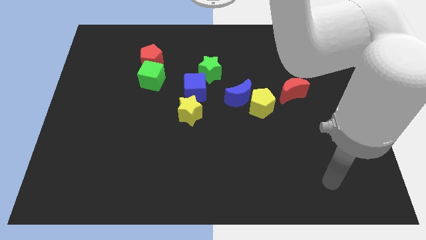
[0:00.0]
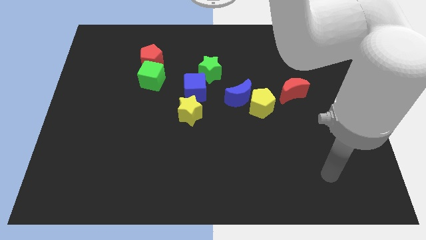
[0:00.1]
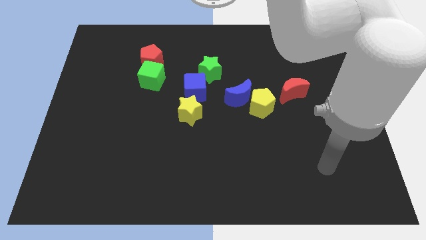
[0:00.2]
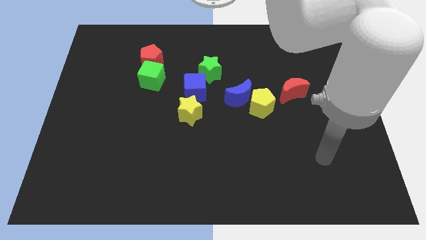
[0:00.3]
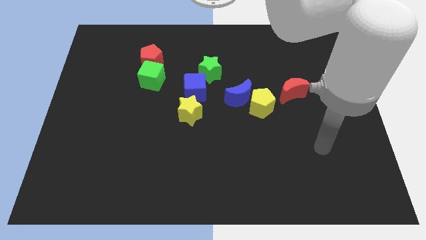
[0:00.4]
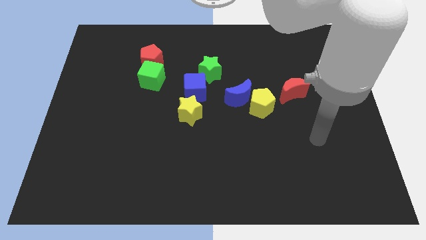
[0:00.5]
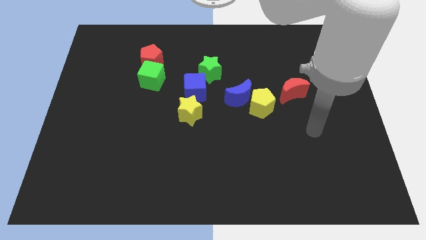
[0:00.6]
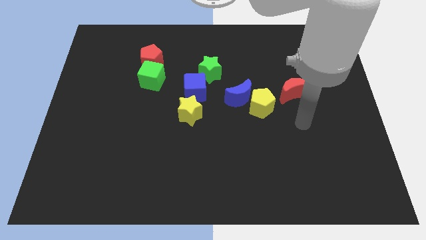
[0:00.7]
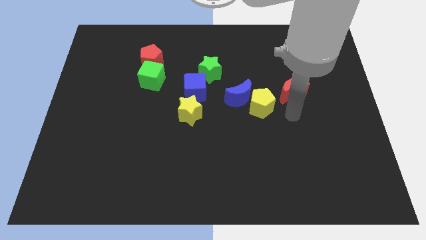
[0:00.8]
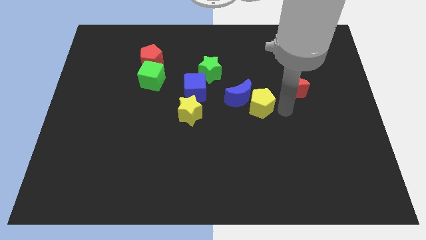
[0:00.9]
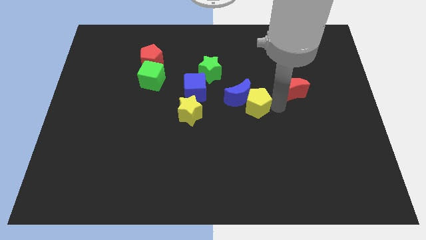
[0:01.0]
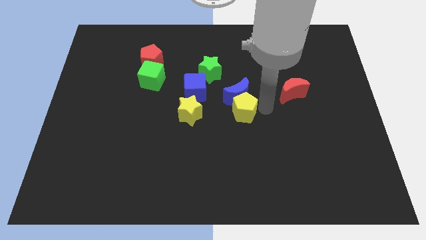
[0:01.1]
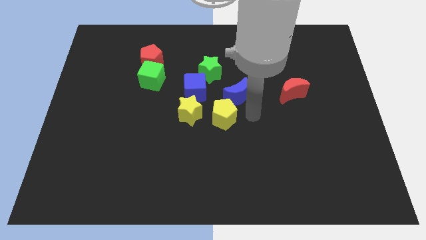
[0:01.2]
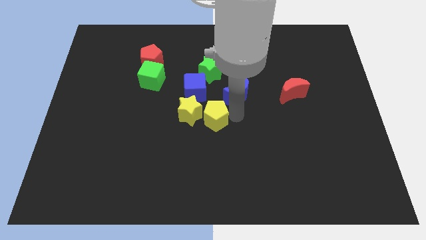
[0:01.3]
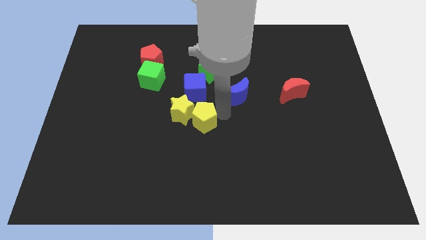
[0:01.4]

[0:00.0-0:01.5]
separate the blue moon from the yellow pentagon

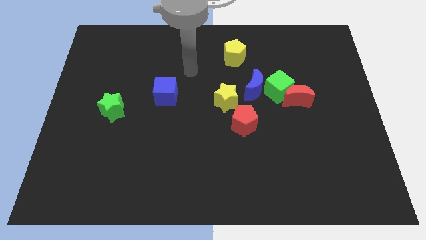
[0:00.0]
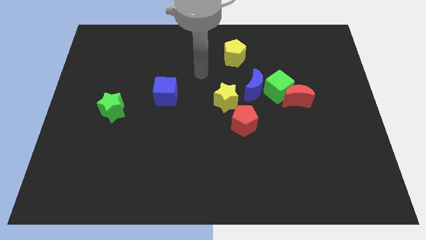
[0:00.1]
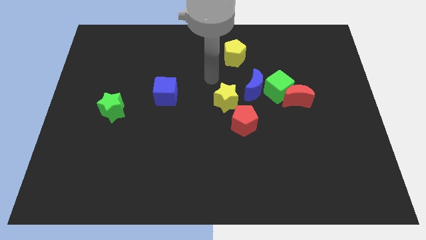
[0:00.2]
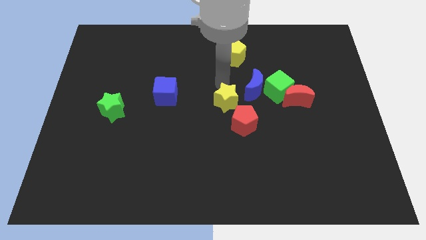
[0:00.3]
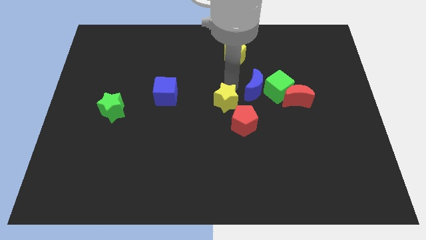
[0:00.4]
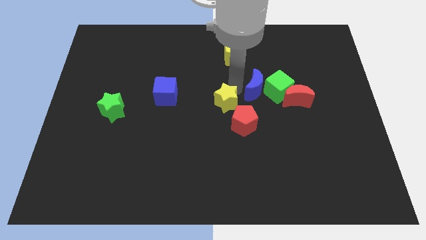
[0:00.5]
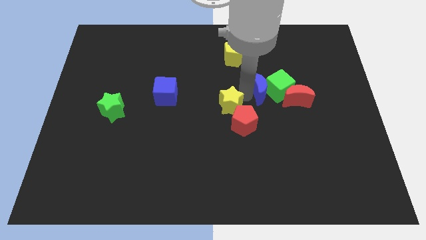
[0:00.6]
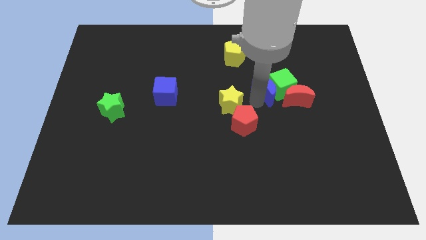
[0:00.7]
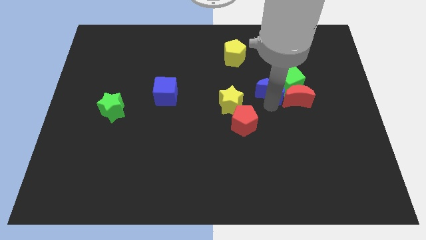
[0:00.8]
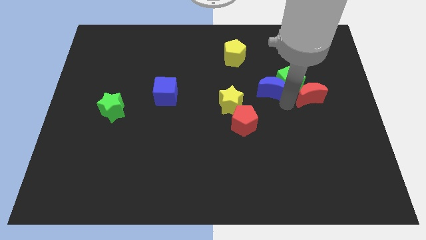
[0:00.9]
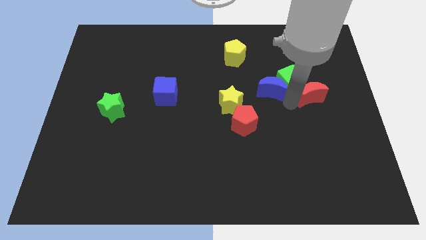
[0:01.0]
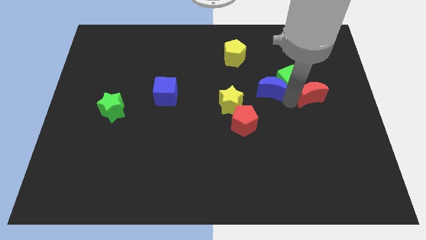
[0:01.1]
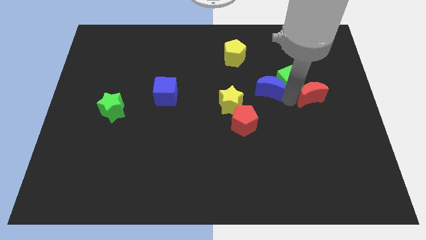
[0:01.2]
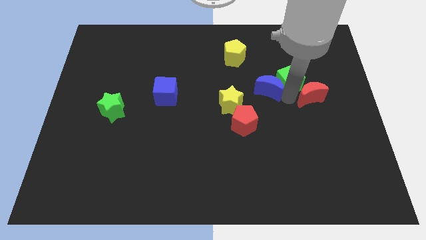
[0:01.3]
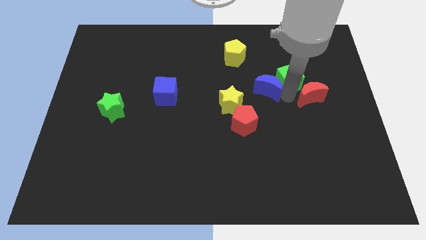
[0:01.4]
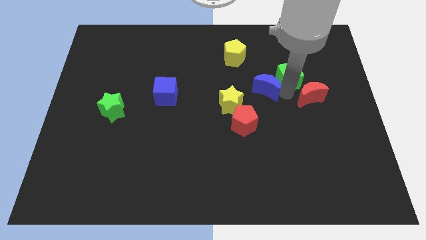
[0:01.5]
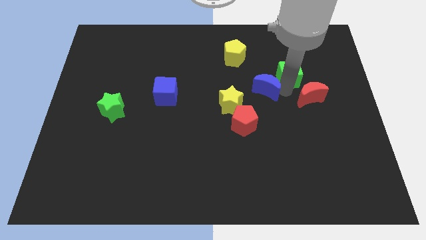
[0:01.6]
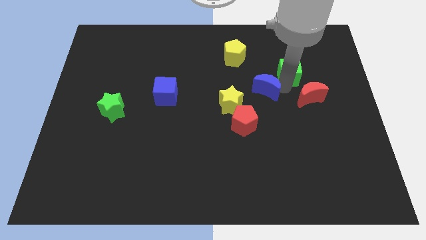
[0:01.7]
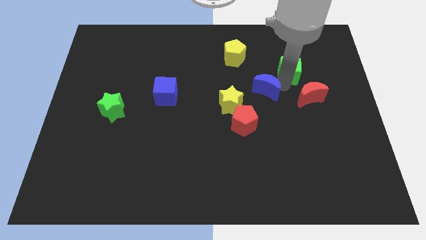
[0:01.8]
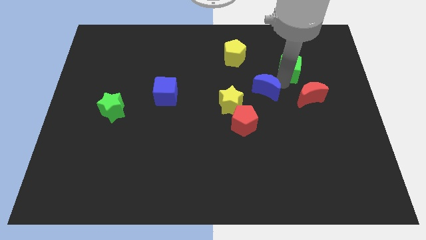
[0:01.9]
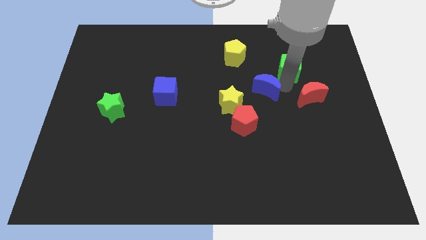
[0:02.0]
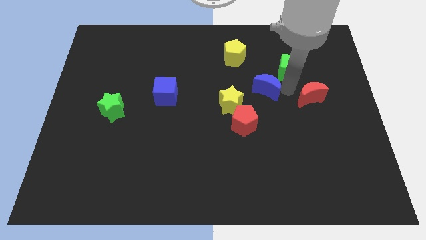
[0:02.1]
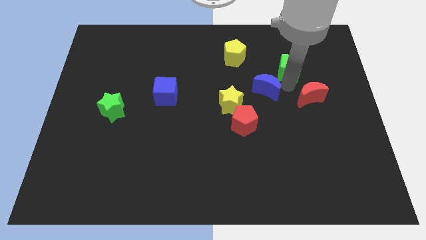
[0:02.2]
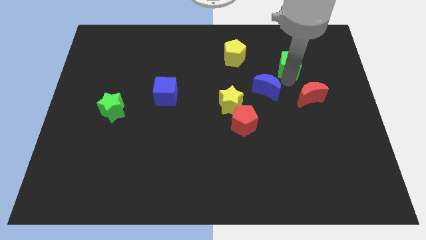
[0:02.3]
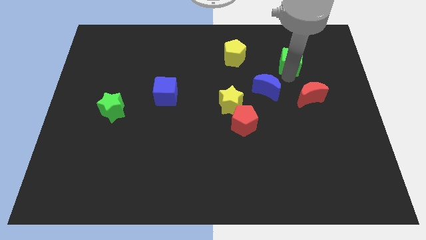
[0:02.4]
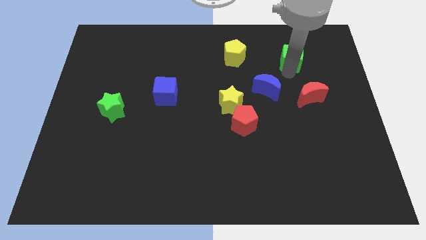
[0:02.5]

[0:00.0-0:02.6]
separate the green cube from the red moon and blue moon

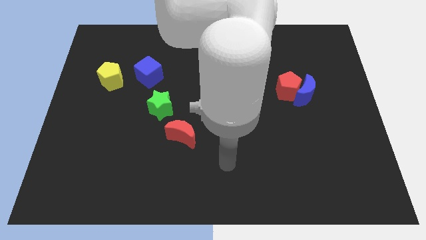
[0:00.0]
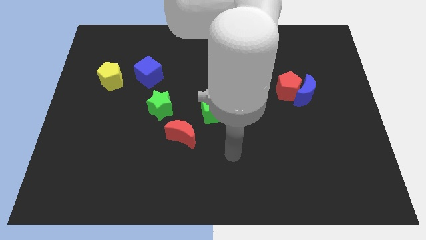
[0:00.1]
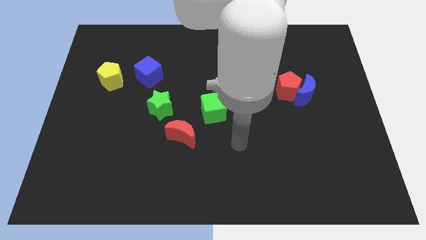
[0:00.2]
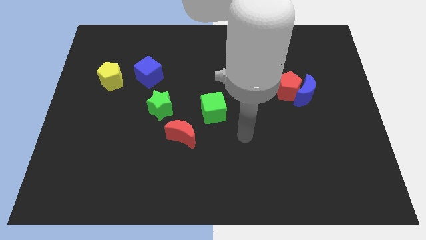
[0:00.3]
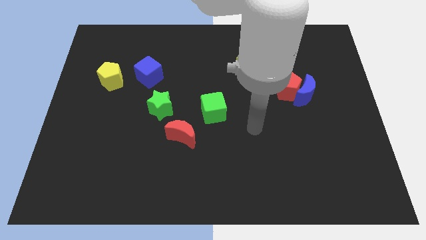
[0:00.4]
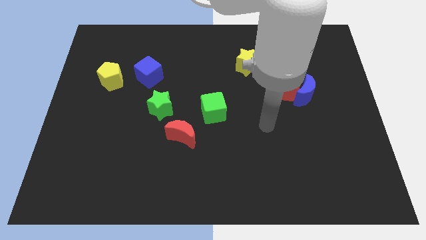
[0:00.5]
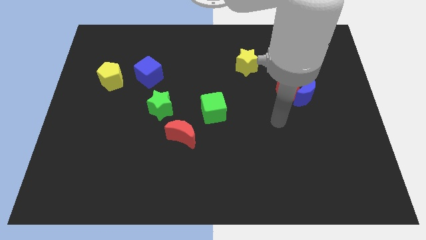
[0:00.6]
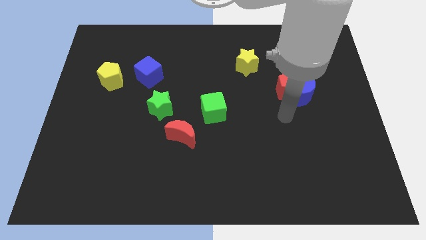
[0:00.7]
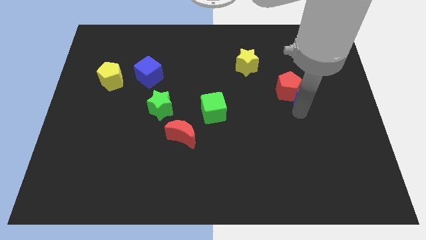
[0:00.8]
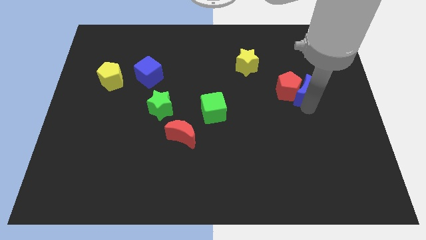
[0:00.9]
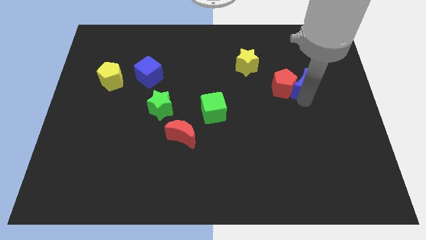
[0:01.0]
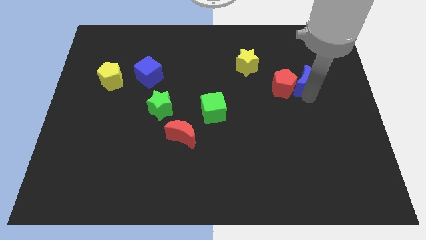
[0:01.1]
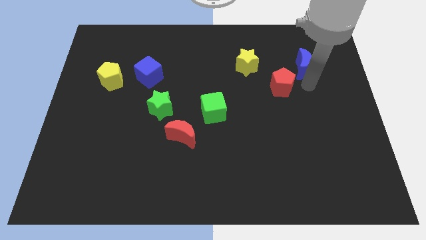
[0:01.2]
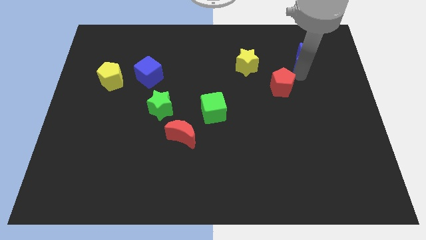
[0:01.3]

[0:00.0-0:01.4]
separate the red pentagon from the blue moon

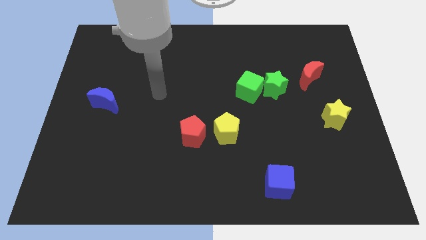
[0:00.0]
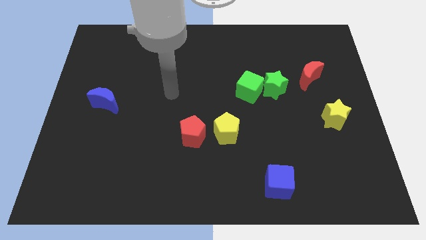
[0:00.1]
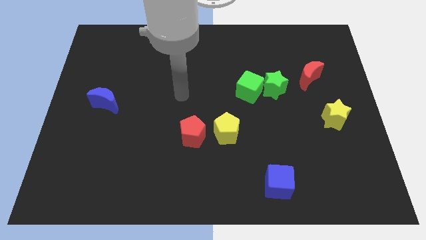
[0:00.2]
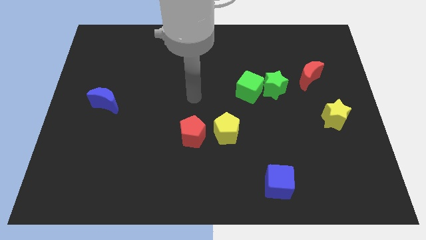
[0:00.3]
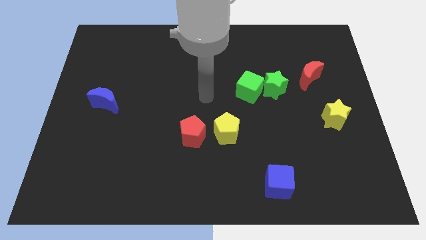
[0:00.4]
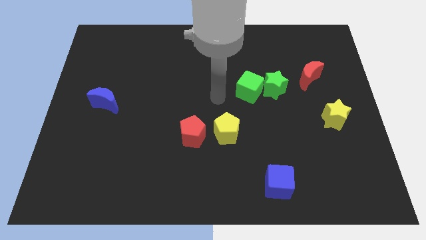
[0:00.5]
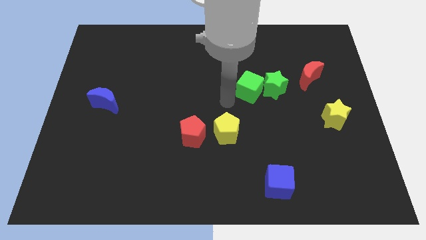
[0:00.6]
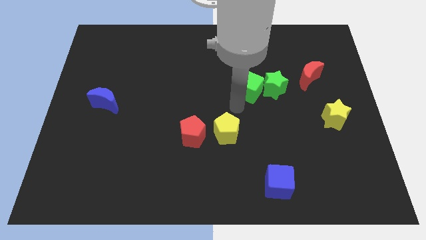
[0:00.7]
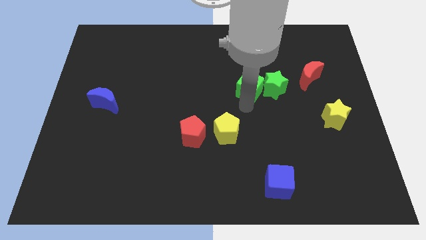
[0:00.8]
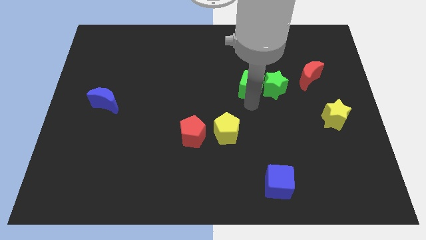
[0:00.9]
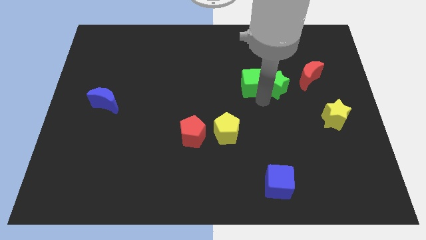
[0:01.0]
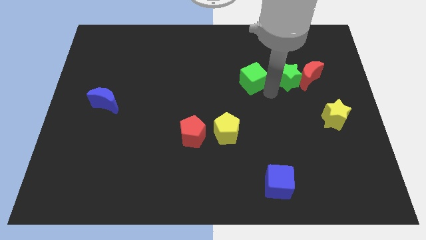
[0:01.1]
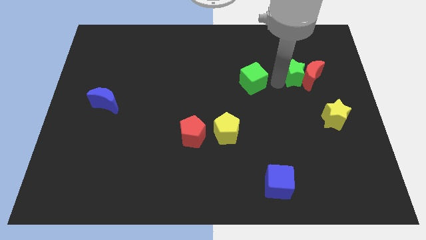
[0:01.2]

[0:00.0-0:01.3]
pull the green cube apart from the green star

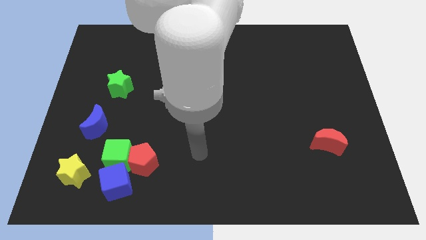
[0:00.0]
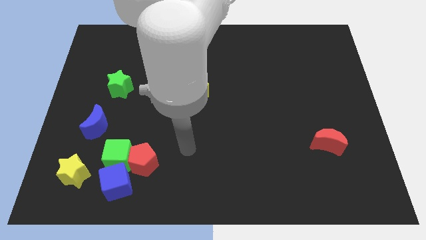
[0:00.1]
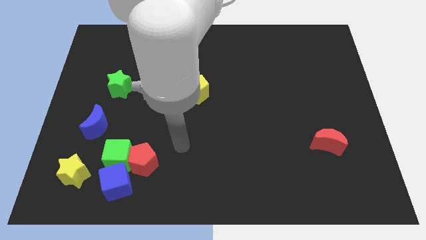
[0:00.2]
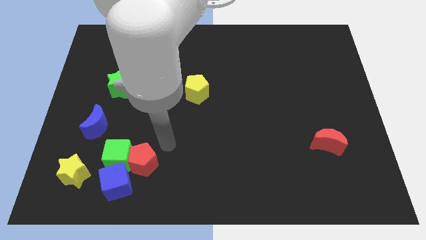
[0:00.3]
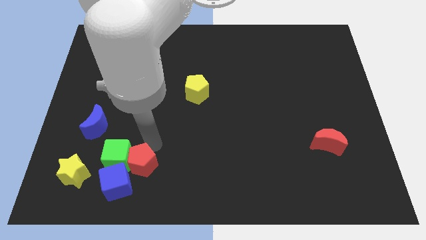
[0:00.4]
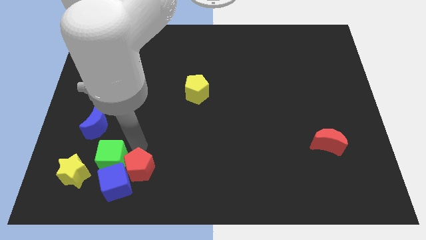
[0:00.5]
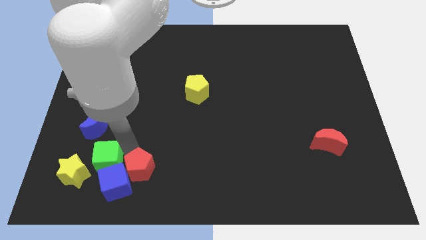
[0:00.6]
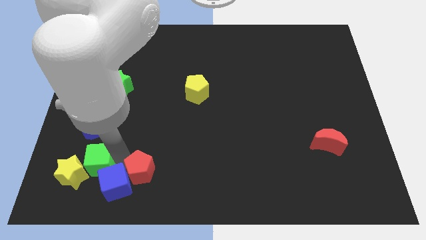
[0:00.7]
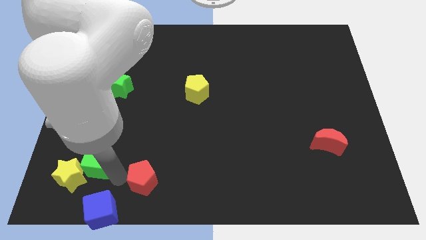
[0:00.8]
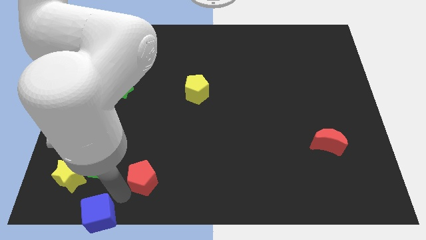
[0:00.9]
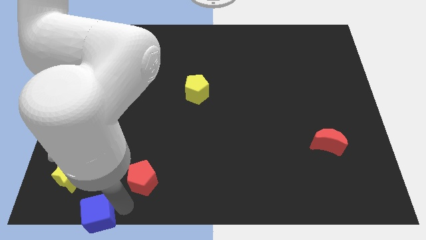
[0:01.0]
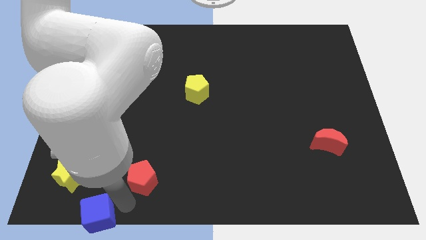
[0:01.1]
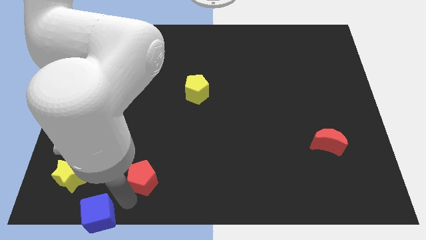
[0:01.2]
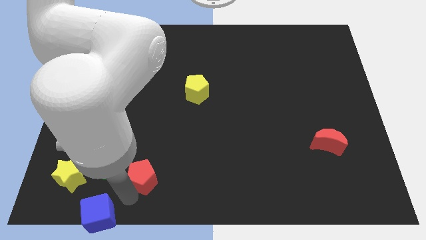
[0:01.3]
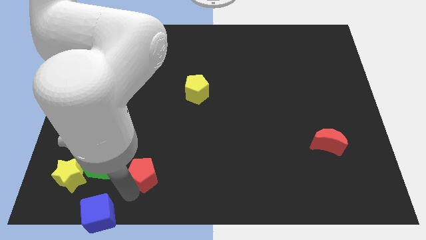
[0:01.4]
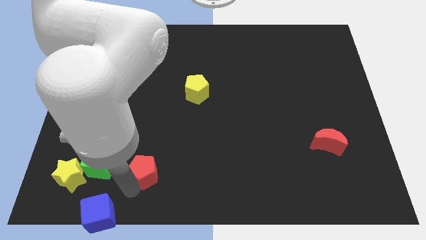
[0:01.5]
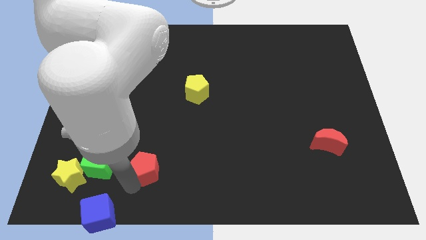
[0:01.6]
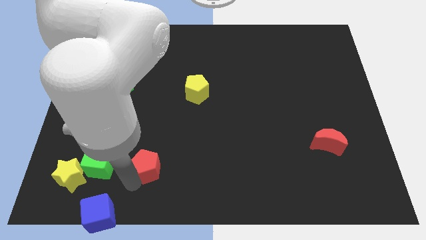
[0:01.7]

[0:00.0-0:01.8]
pull the red pentagon apart from the green cube and blue cube

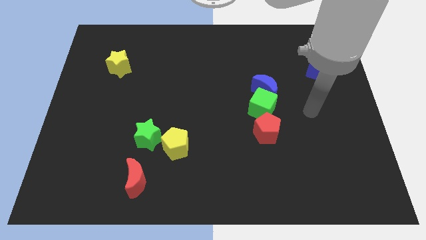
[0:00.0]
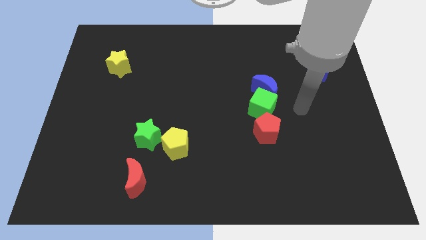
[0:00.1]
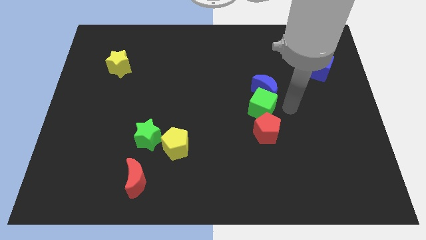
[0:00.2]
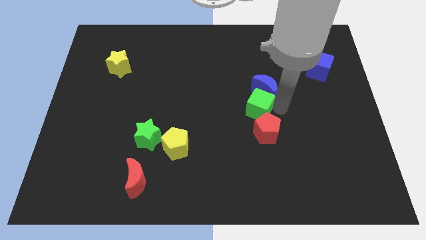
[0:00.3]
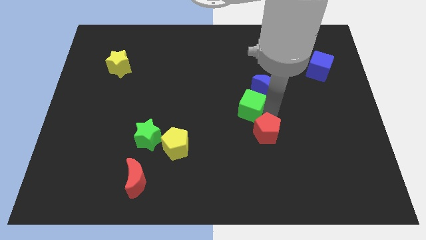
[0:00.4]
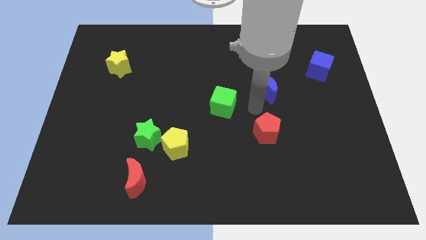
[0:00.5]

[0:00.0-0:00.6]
separate the blue moon from the green cube
